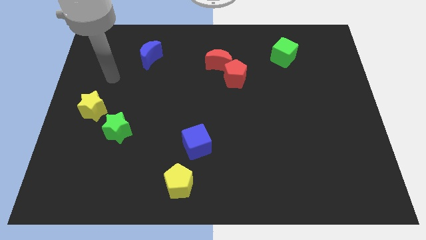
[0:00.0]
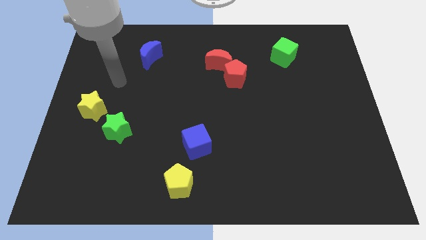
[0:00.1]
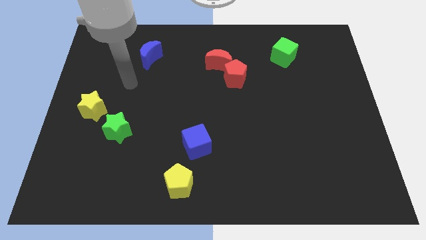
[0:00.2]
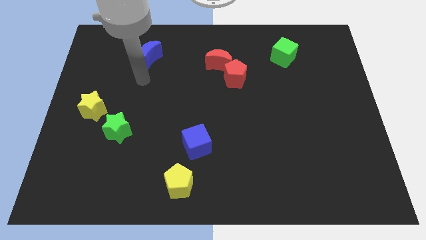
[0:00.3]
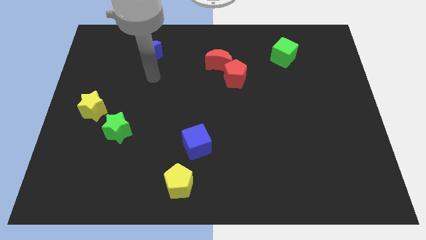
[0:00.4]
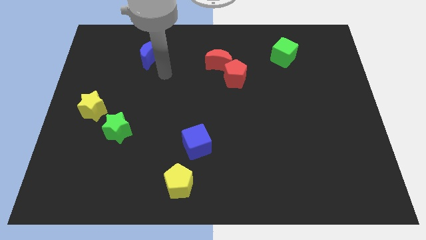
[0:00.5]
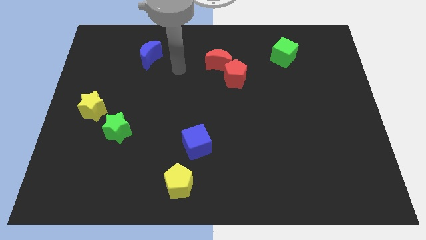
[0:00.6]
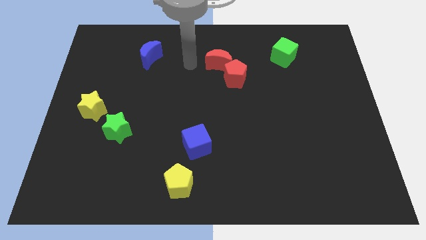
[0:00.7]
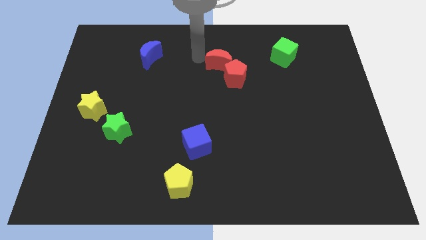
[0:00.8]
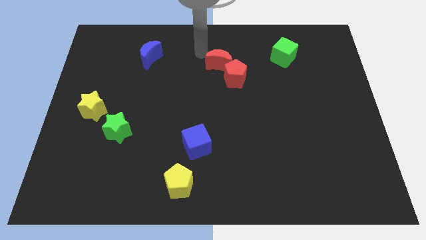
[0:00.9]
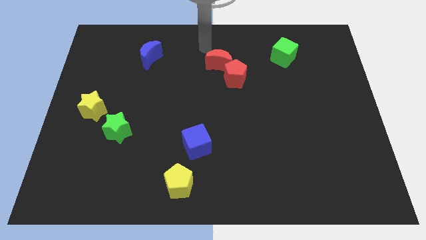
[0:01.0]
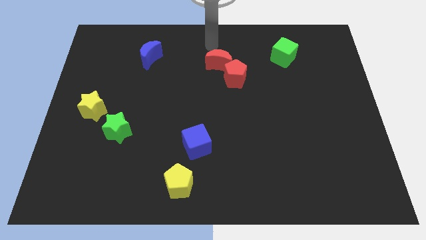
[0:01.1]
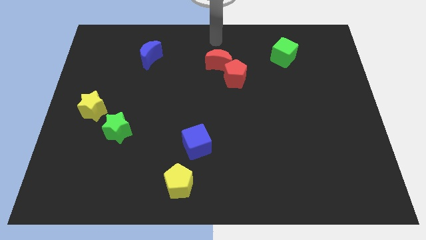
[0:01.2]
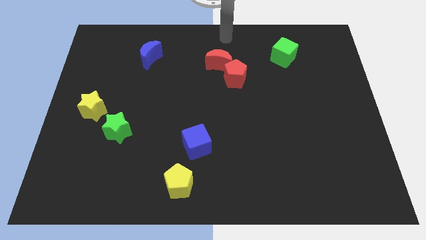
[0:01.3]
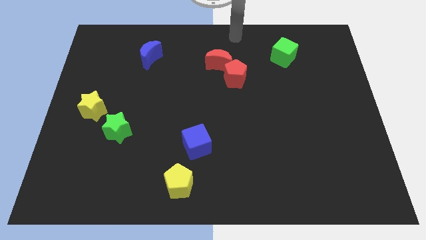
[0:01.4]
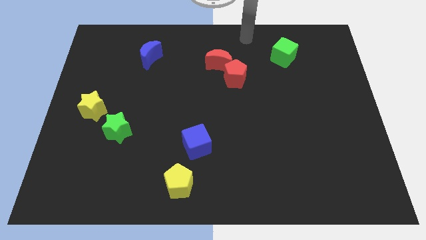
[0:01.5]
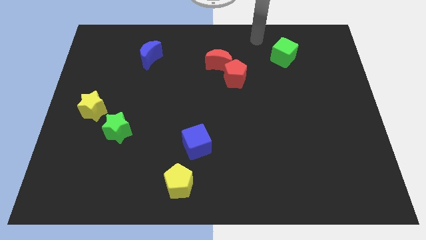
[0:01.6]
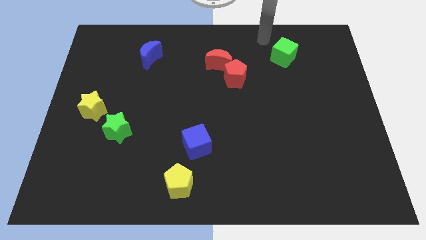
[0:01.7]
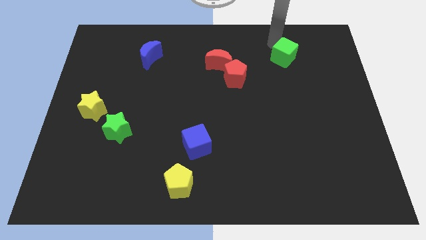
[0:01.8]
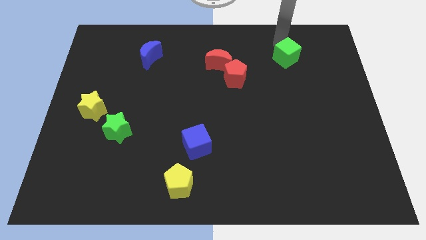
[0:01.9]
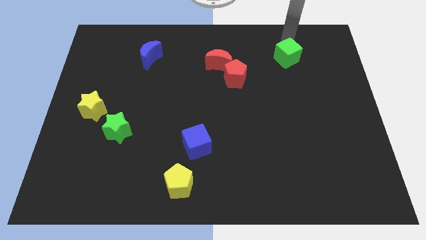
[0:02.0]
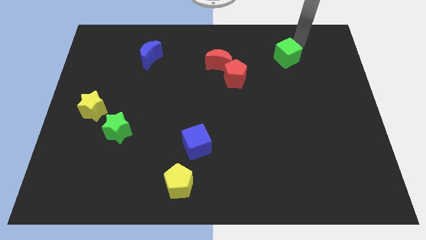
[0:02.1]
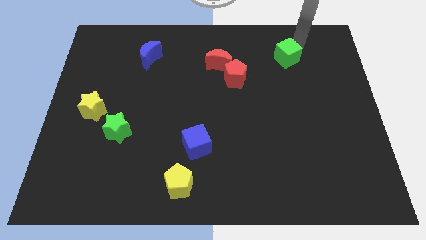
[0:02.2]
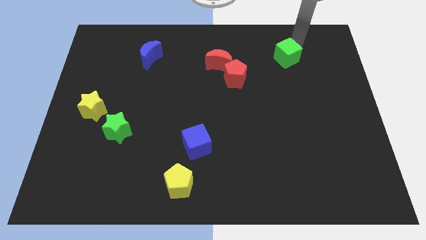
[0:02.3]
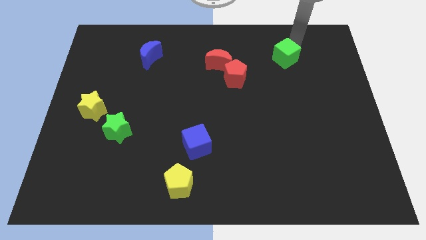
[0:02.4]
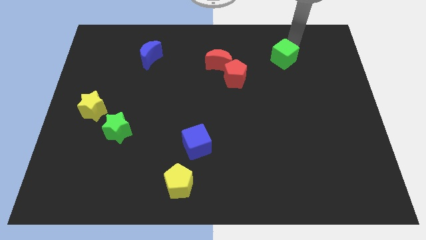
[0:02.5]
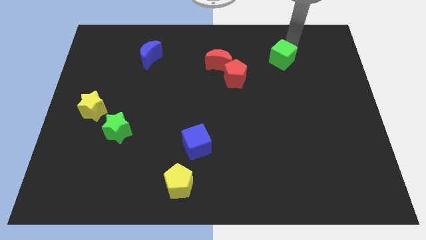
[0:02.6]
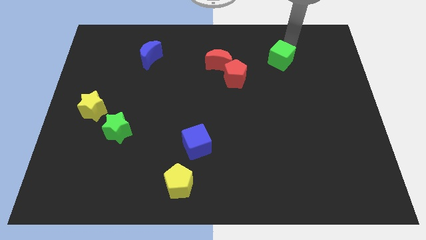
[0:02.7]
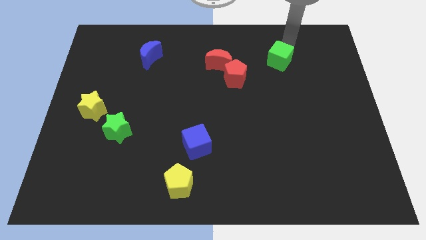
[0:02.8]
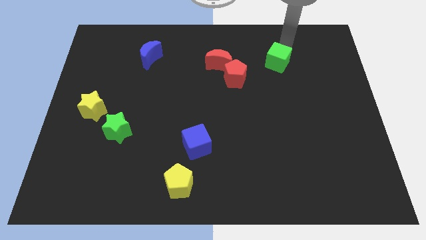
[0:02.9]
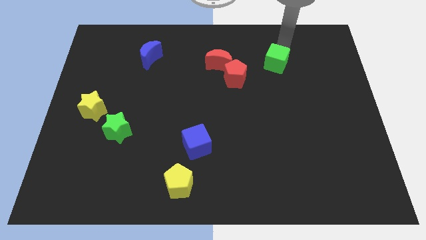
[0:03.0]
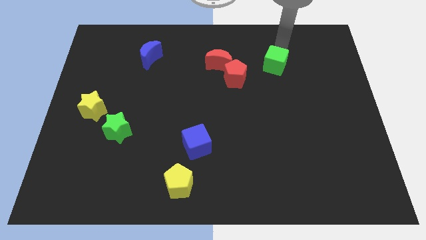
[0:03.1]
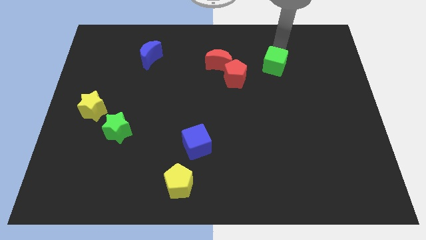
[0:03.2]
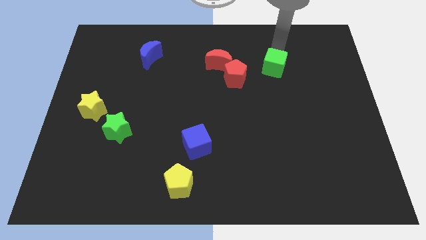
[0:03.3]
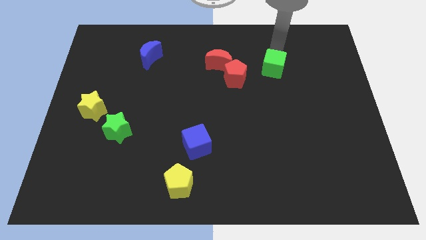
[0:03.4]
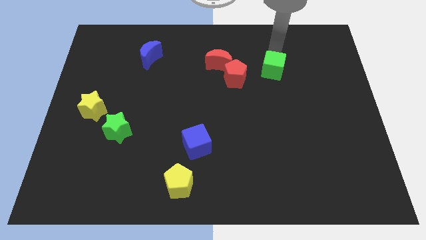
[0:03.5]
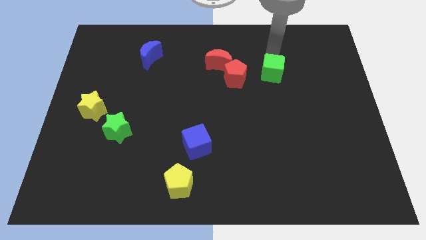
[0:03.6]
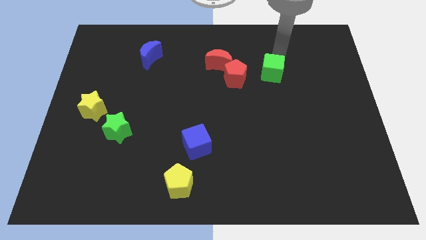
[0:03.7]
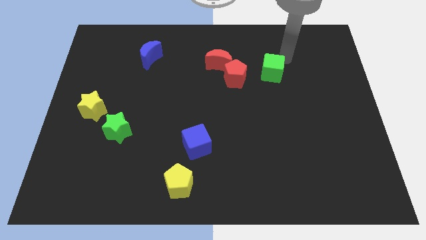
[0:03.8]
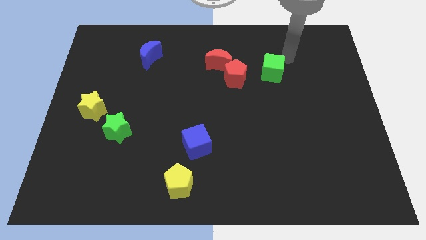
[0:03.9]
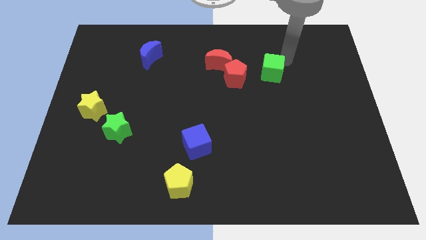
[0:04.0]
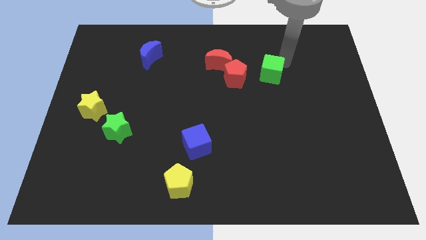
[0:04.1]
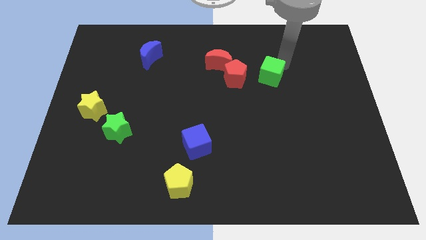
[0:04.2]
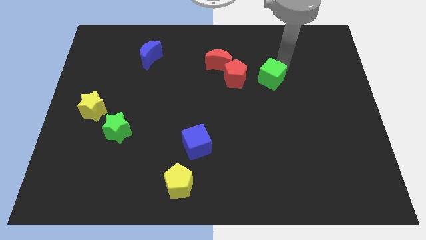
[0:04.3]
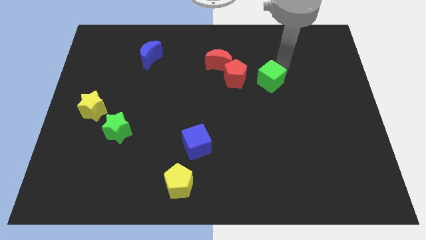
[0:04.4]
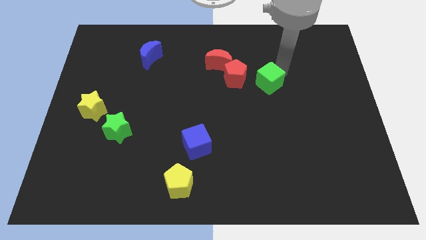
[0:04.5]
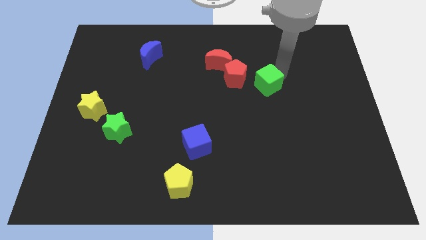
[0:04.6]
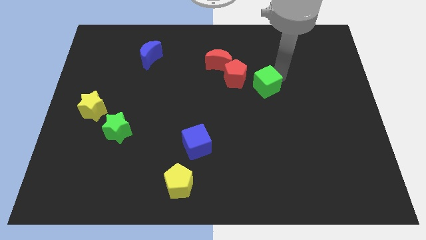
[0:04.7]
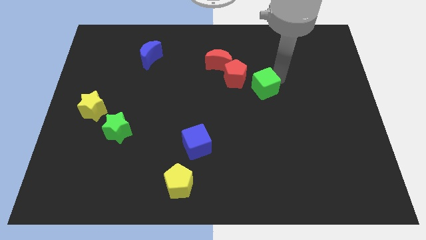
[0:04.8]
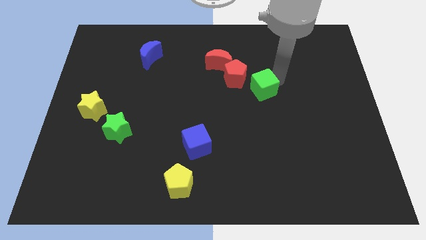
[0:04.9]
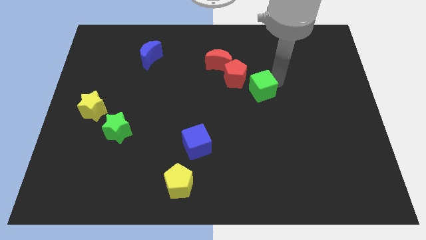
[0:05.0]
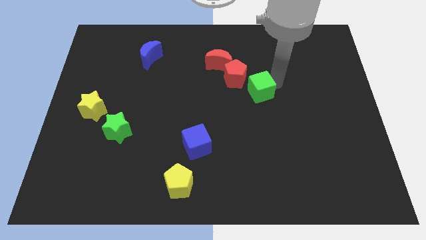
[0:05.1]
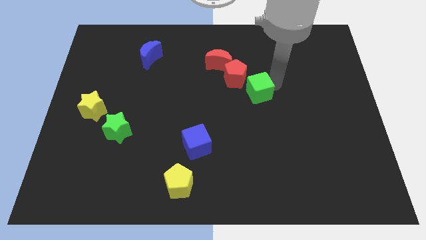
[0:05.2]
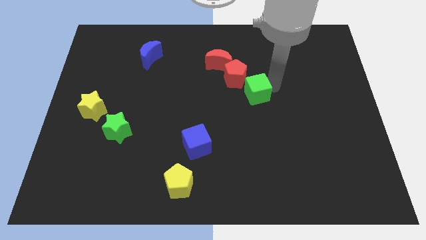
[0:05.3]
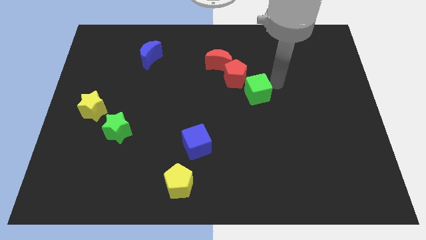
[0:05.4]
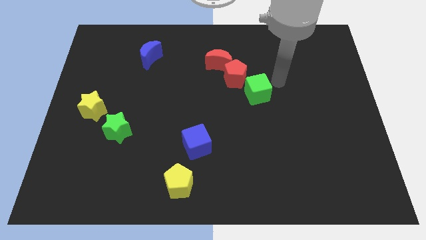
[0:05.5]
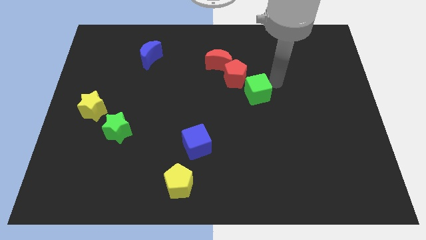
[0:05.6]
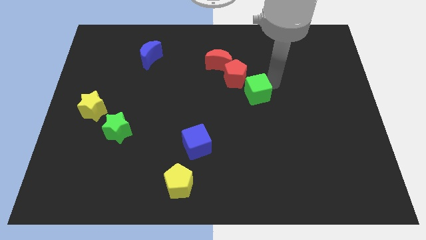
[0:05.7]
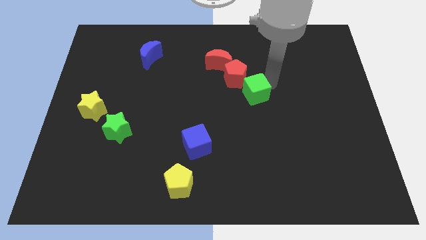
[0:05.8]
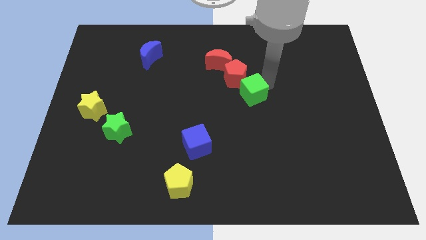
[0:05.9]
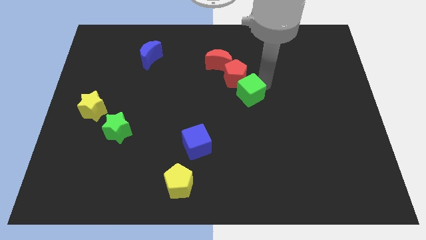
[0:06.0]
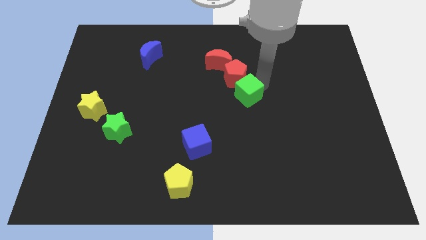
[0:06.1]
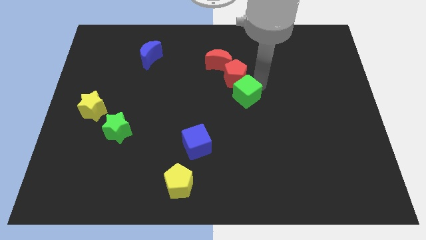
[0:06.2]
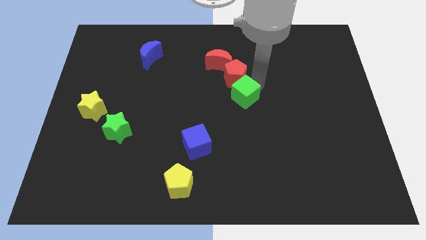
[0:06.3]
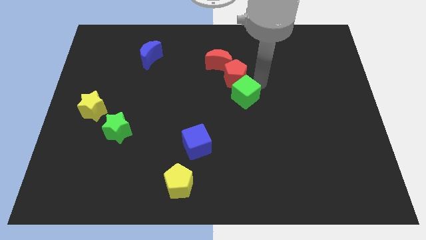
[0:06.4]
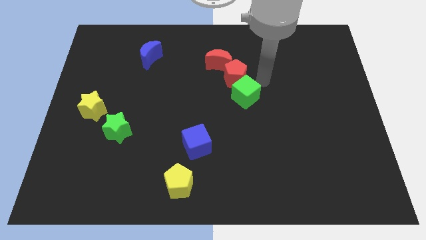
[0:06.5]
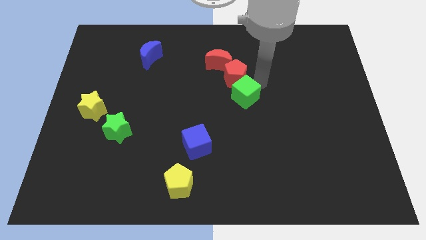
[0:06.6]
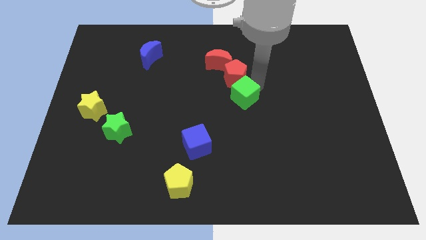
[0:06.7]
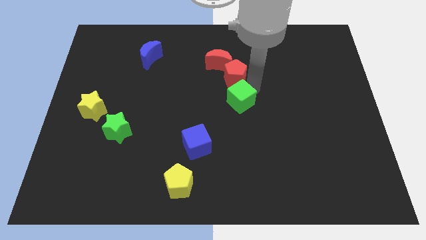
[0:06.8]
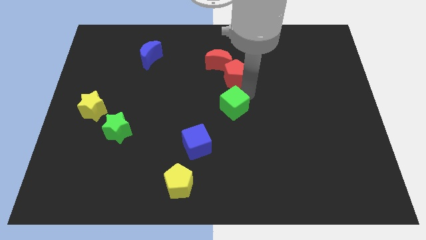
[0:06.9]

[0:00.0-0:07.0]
move the green cube downwards and to the left diagonally

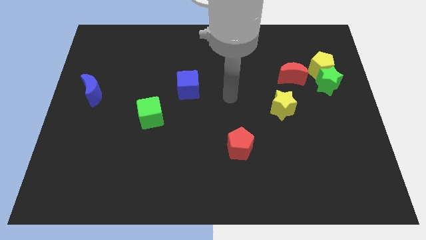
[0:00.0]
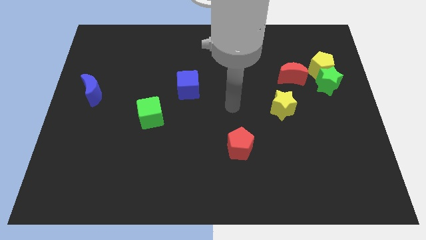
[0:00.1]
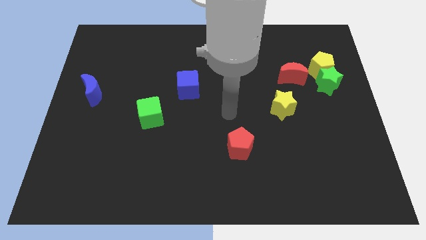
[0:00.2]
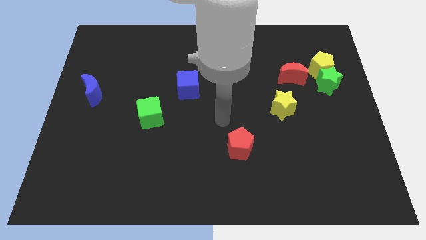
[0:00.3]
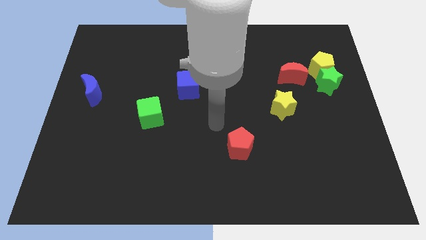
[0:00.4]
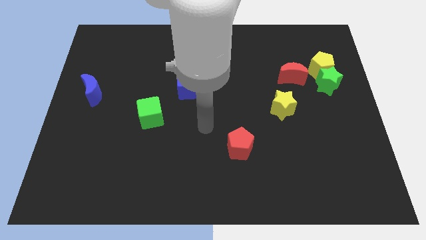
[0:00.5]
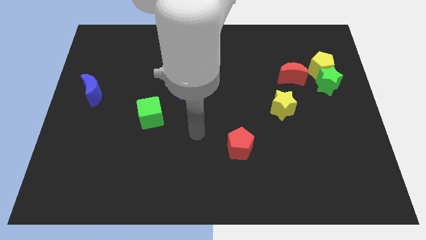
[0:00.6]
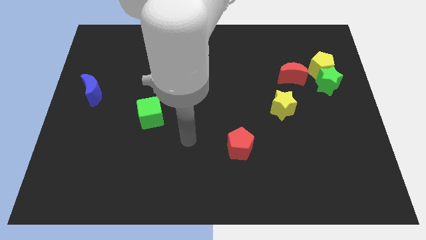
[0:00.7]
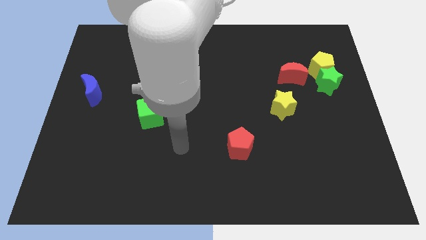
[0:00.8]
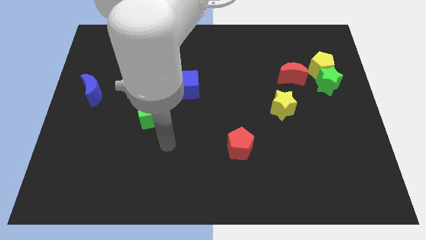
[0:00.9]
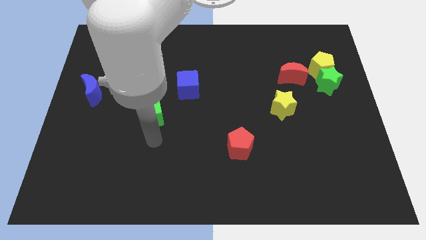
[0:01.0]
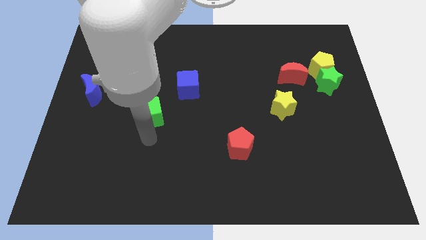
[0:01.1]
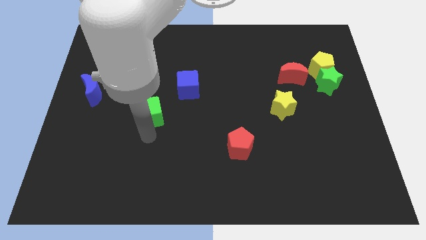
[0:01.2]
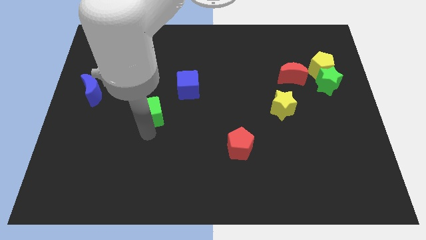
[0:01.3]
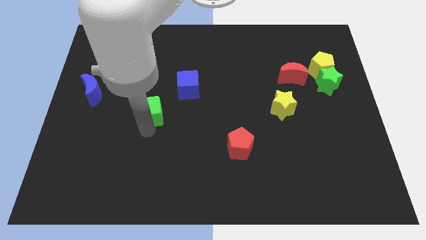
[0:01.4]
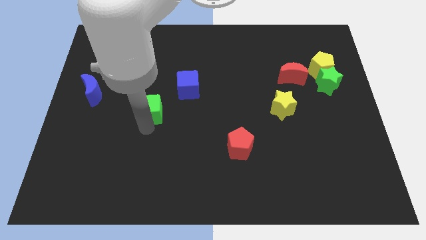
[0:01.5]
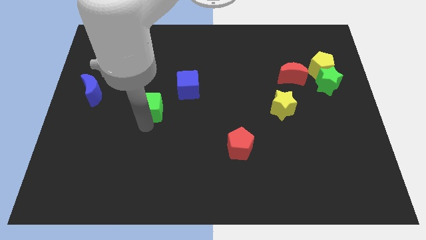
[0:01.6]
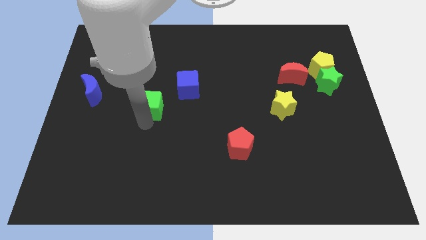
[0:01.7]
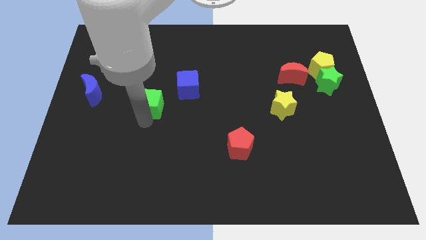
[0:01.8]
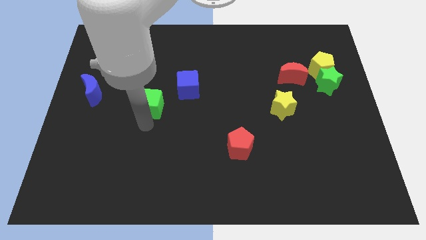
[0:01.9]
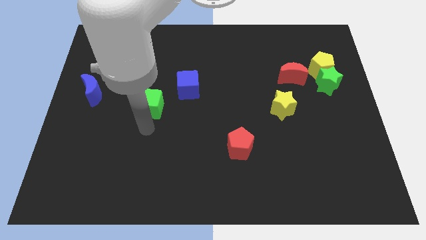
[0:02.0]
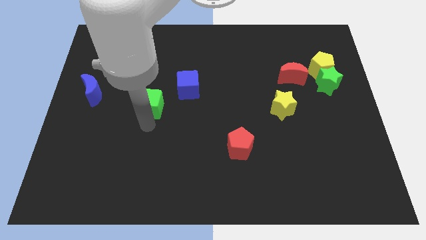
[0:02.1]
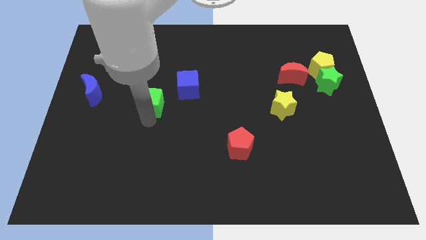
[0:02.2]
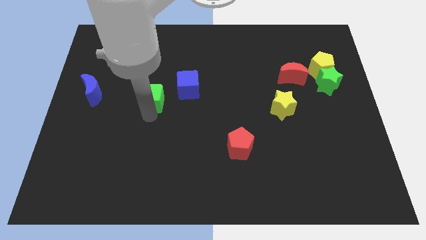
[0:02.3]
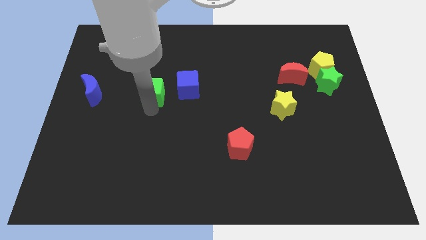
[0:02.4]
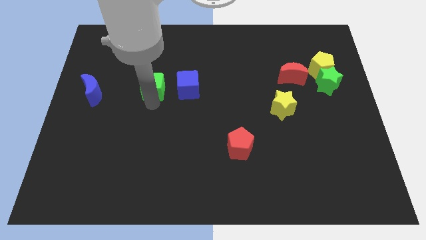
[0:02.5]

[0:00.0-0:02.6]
move the green cube upwards a little bit
